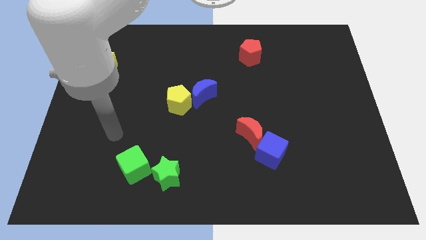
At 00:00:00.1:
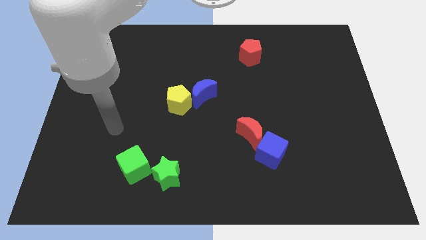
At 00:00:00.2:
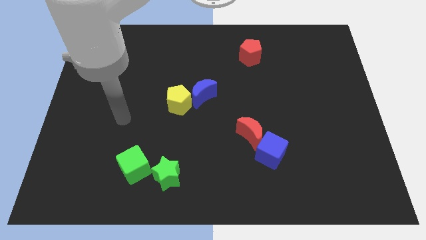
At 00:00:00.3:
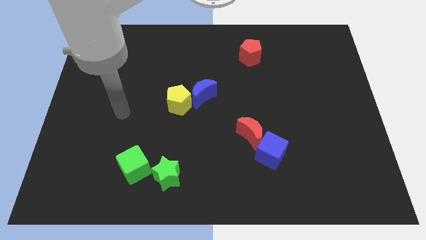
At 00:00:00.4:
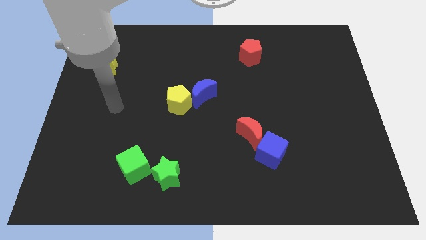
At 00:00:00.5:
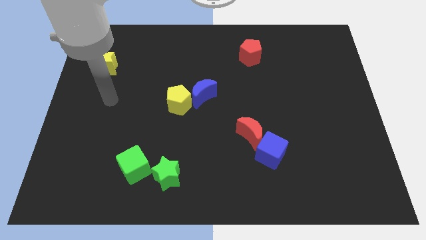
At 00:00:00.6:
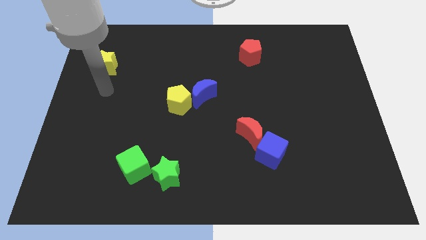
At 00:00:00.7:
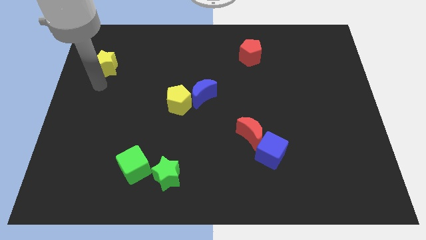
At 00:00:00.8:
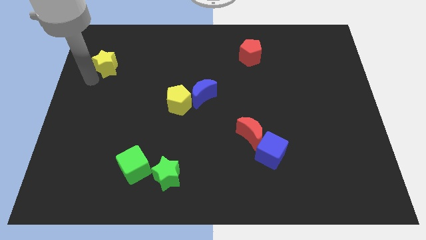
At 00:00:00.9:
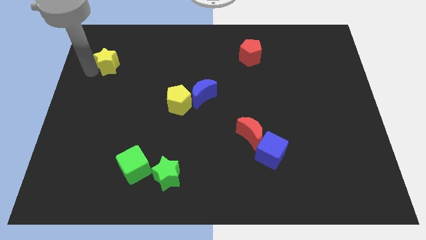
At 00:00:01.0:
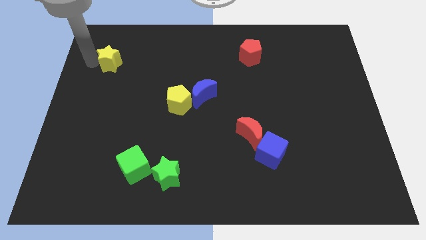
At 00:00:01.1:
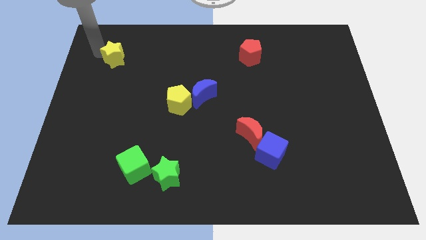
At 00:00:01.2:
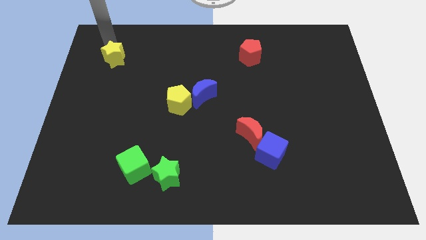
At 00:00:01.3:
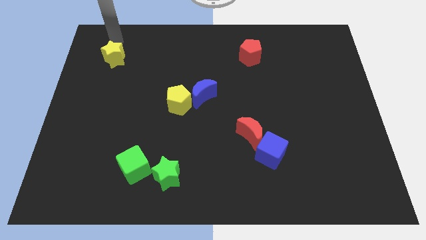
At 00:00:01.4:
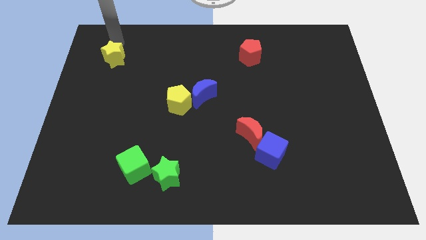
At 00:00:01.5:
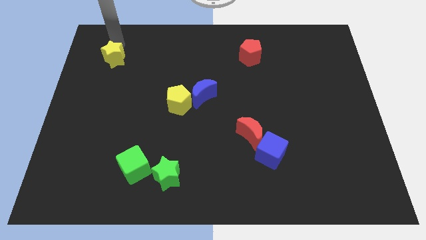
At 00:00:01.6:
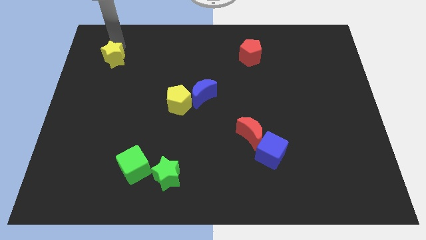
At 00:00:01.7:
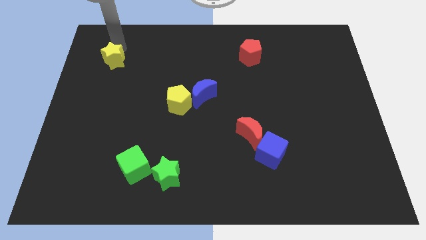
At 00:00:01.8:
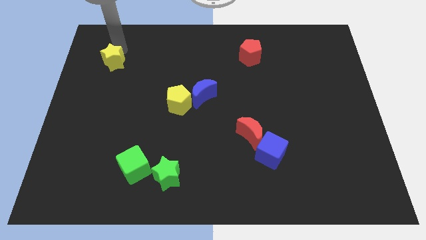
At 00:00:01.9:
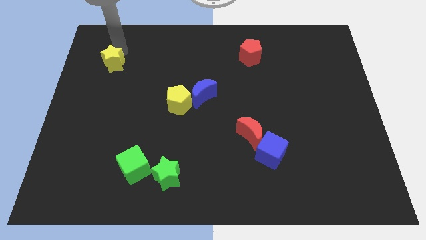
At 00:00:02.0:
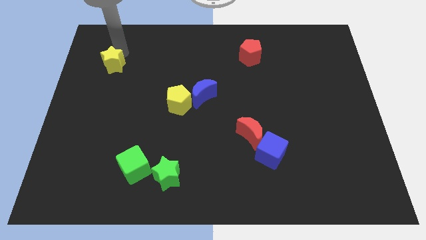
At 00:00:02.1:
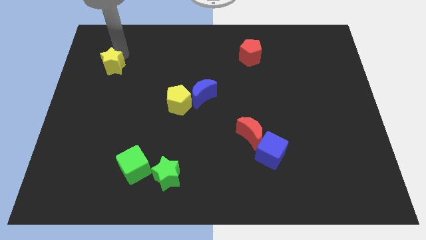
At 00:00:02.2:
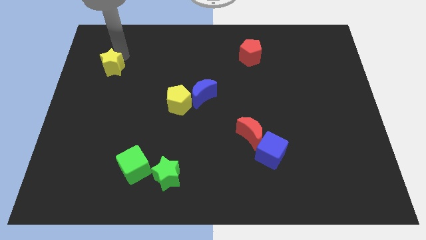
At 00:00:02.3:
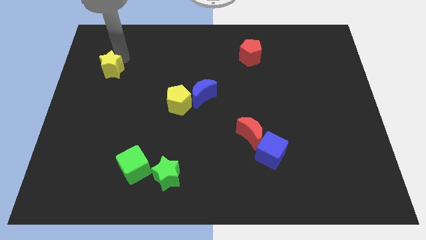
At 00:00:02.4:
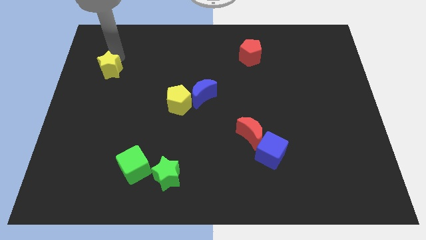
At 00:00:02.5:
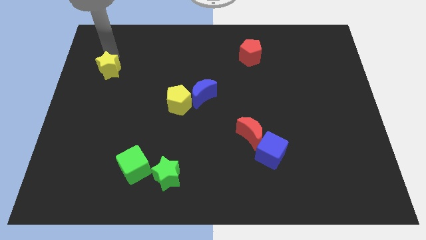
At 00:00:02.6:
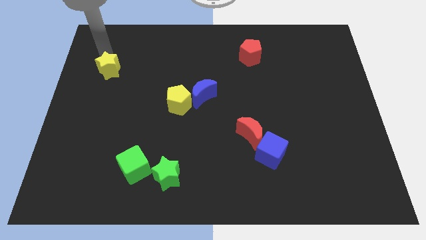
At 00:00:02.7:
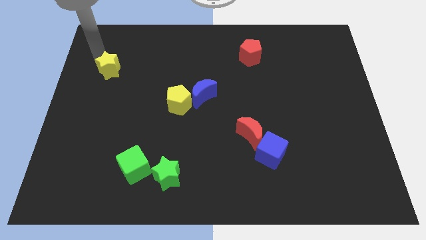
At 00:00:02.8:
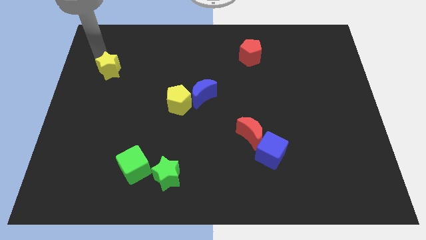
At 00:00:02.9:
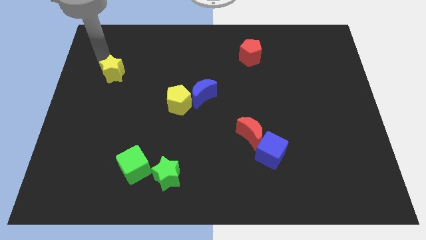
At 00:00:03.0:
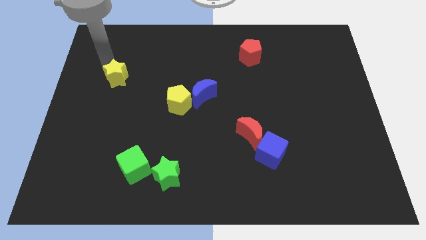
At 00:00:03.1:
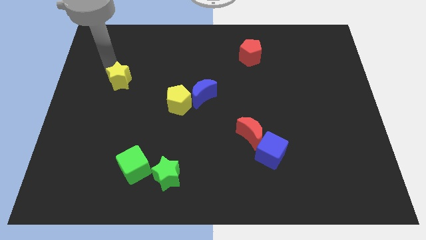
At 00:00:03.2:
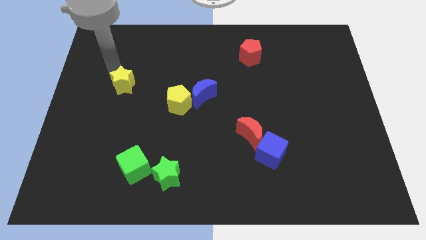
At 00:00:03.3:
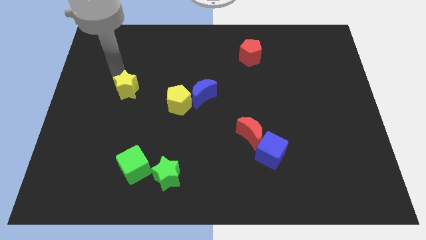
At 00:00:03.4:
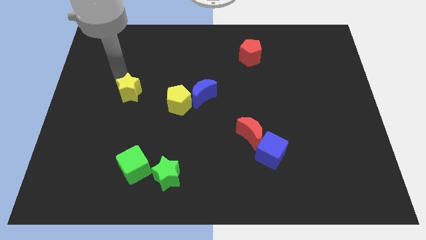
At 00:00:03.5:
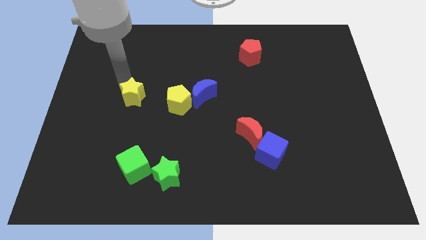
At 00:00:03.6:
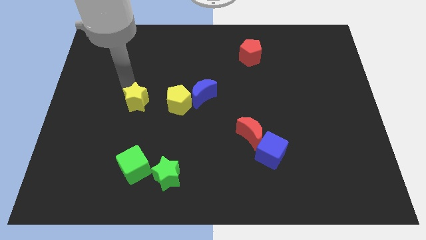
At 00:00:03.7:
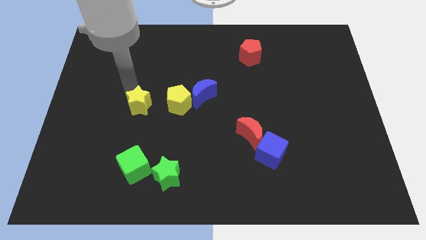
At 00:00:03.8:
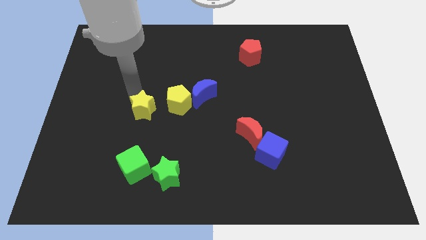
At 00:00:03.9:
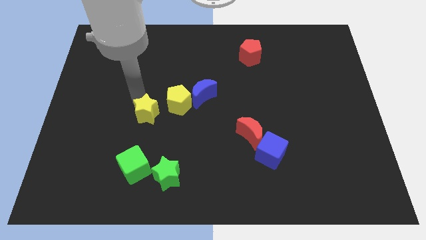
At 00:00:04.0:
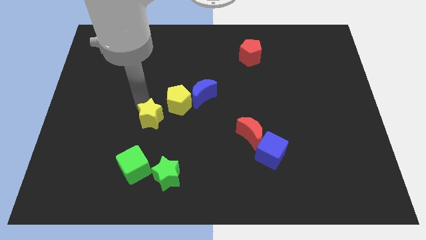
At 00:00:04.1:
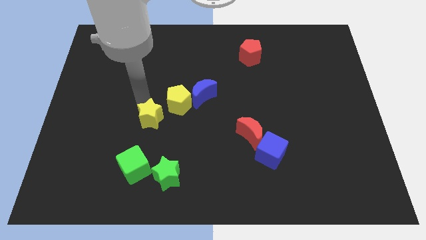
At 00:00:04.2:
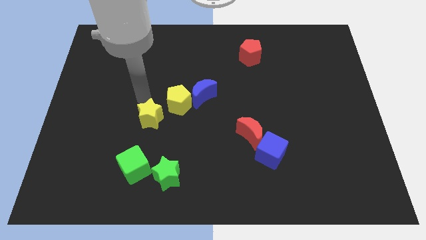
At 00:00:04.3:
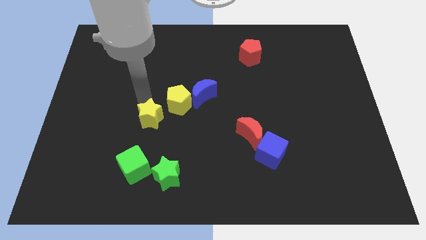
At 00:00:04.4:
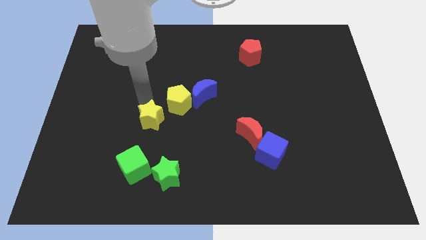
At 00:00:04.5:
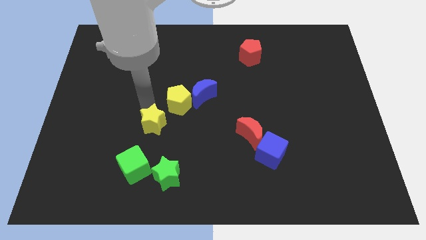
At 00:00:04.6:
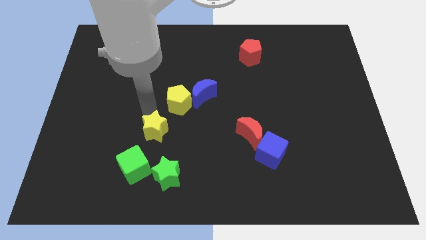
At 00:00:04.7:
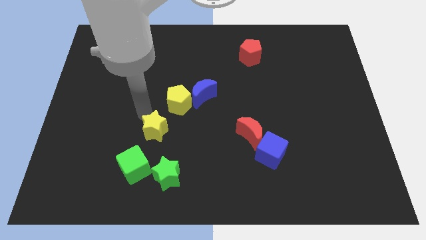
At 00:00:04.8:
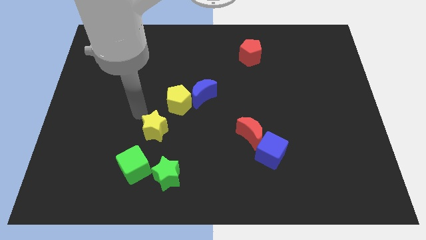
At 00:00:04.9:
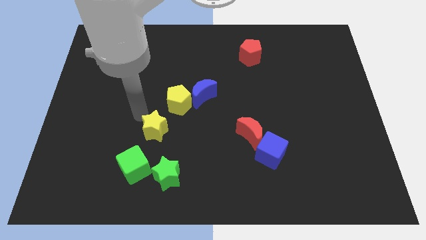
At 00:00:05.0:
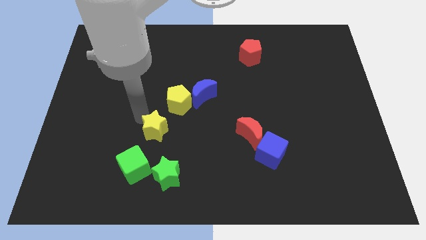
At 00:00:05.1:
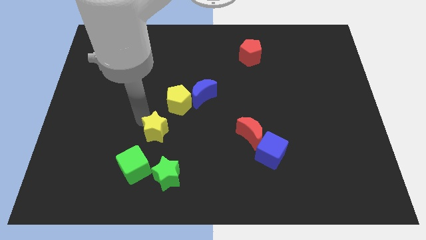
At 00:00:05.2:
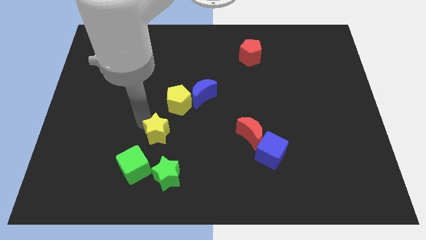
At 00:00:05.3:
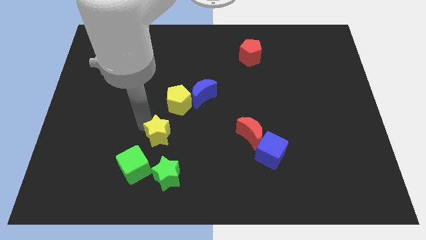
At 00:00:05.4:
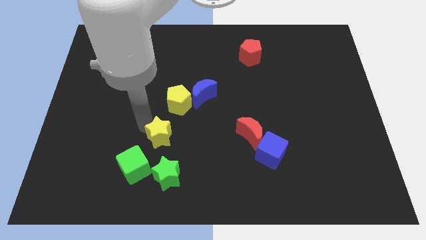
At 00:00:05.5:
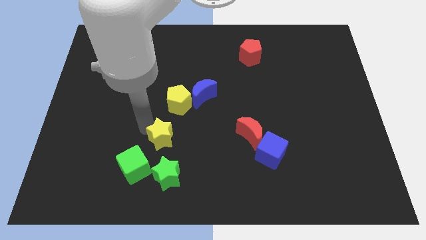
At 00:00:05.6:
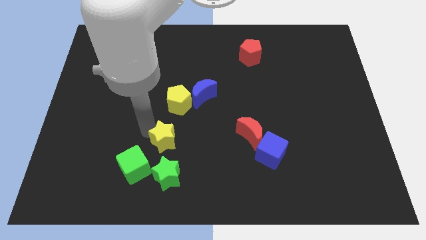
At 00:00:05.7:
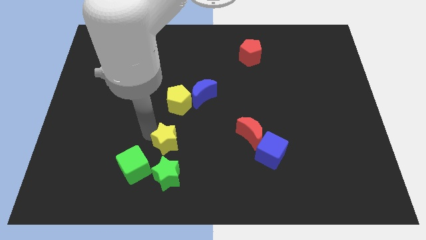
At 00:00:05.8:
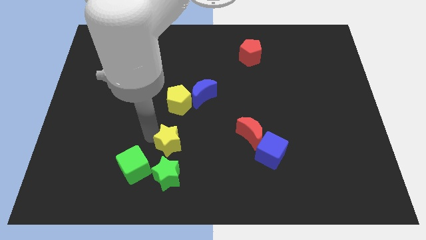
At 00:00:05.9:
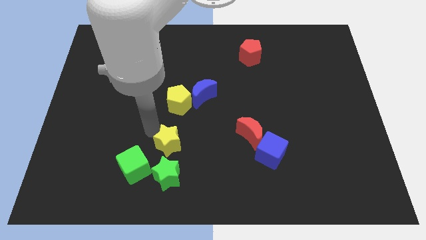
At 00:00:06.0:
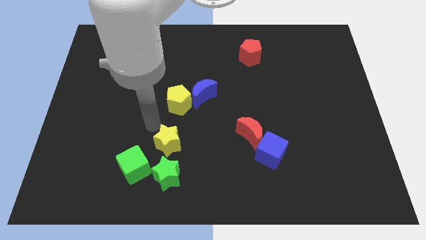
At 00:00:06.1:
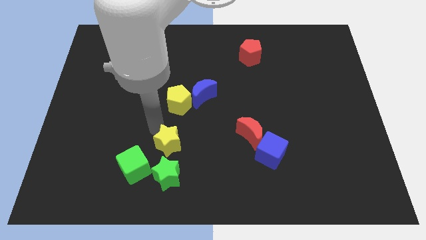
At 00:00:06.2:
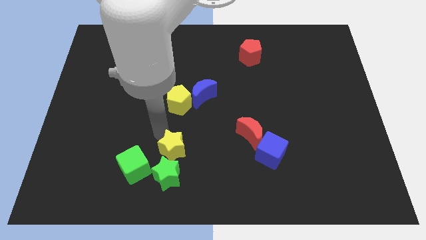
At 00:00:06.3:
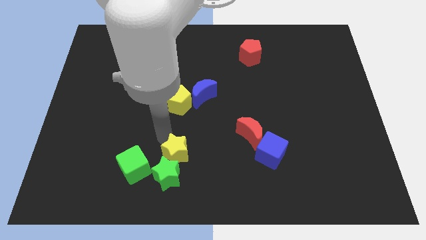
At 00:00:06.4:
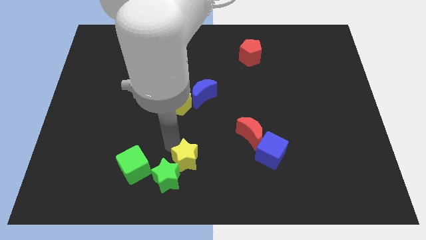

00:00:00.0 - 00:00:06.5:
put the yellow star to the bottom

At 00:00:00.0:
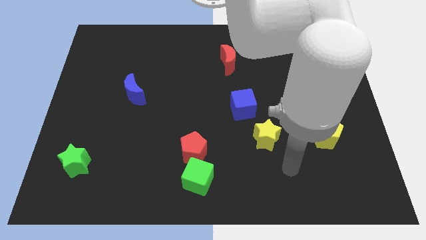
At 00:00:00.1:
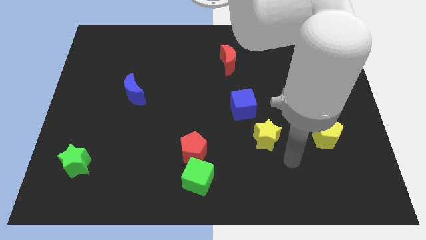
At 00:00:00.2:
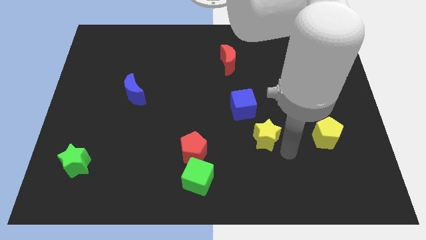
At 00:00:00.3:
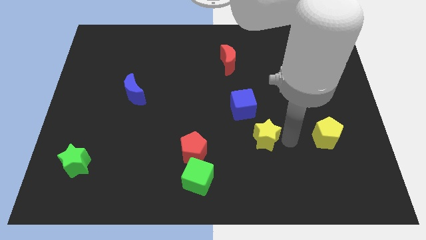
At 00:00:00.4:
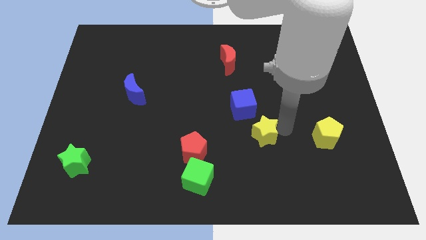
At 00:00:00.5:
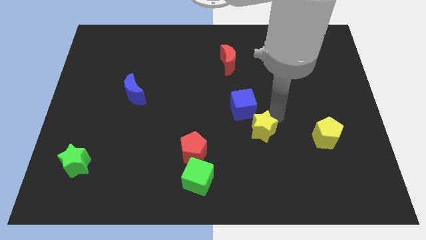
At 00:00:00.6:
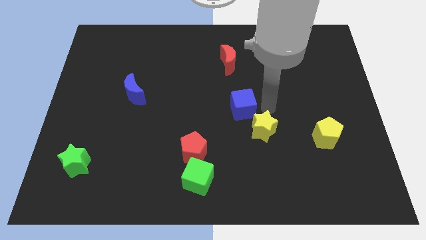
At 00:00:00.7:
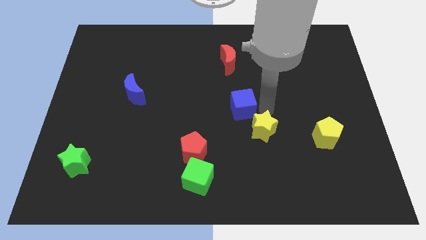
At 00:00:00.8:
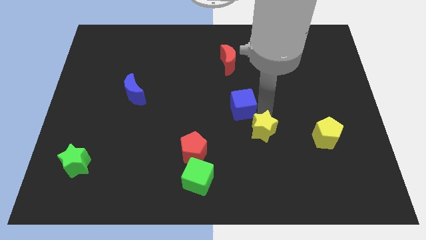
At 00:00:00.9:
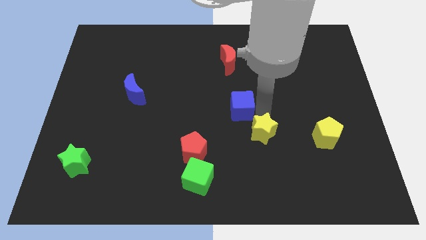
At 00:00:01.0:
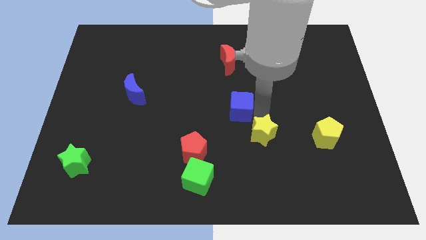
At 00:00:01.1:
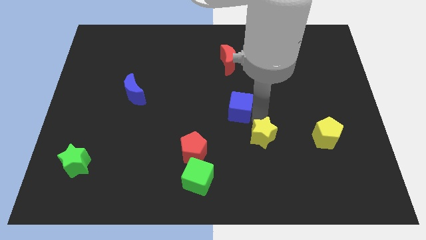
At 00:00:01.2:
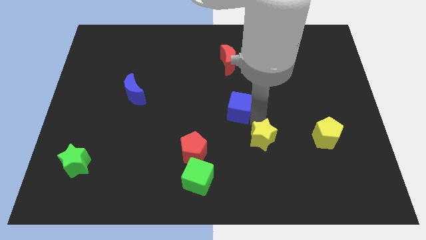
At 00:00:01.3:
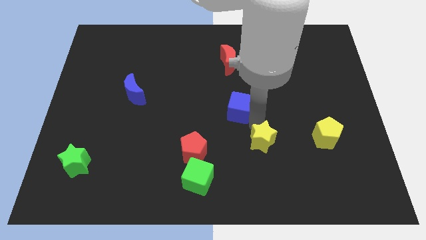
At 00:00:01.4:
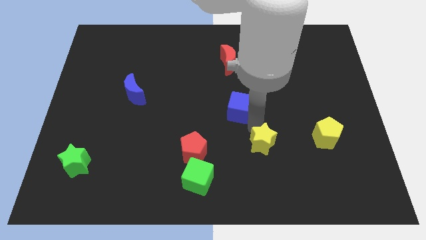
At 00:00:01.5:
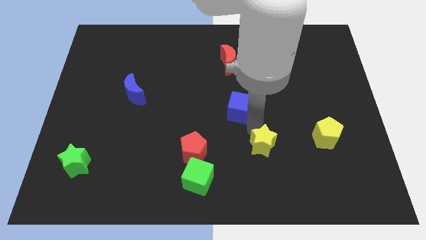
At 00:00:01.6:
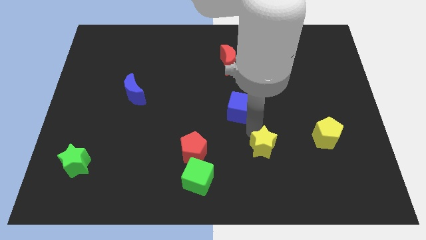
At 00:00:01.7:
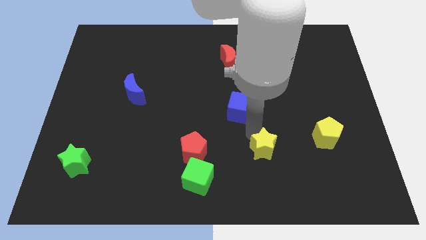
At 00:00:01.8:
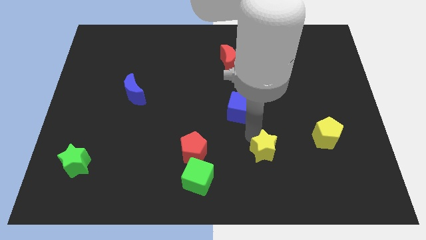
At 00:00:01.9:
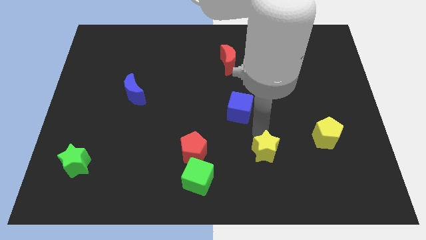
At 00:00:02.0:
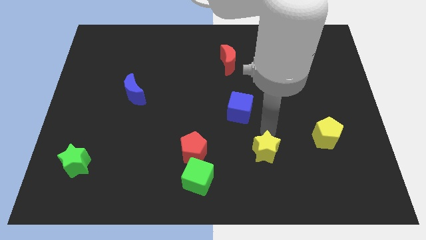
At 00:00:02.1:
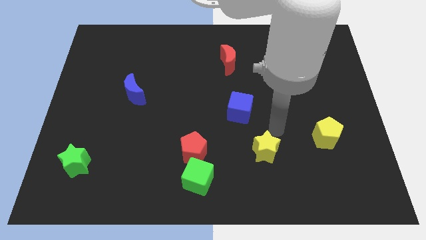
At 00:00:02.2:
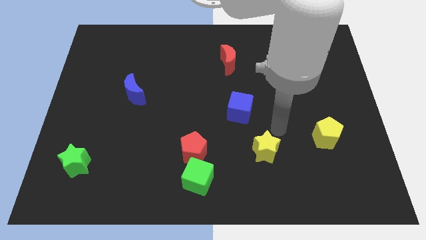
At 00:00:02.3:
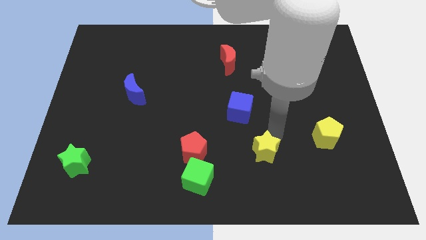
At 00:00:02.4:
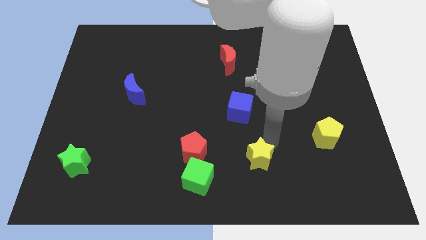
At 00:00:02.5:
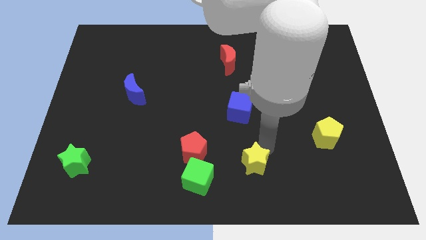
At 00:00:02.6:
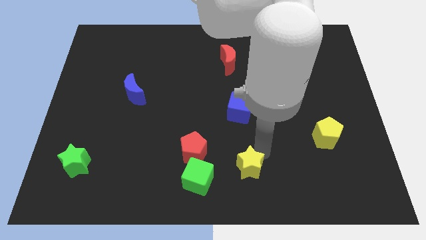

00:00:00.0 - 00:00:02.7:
slide the yellow star to the bottom side
